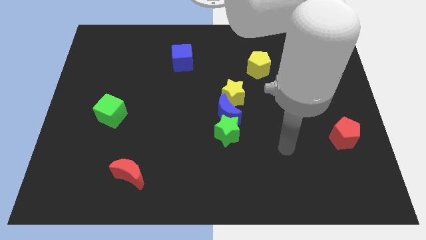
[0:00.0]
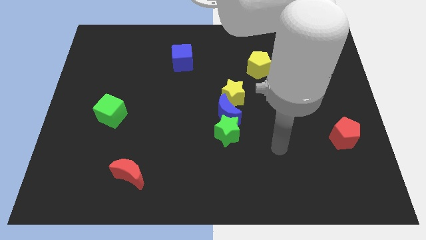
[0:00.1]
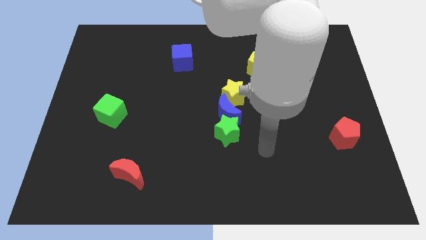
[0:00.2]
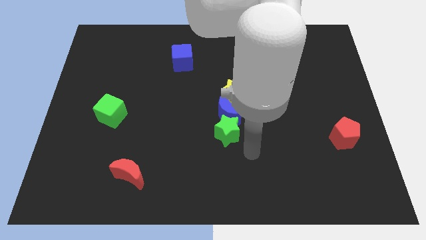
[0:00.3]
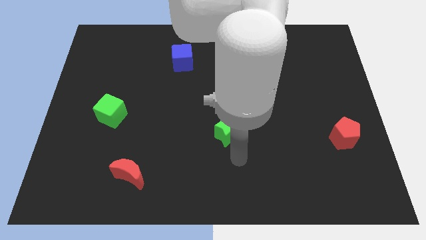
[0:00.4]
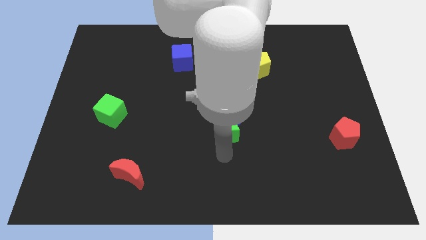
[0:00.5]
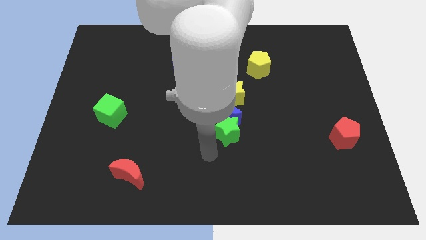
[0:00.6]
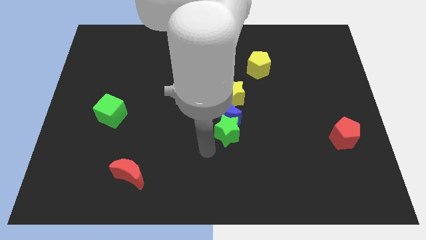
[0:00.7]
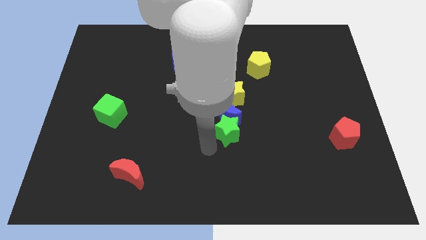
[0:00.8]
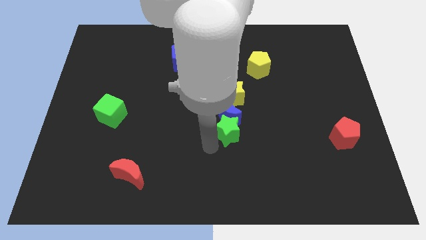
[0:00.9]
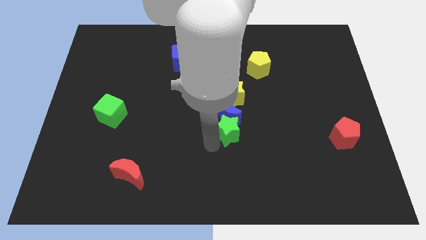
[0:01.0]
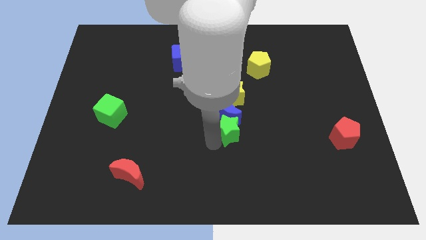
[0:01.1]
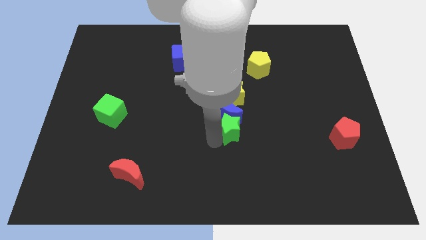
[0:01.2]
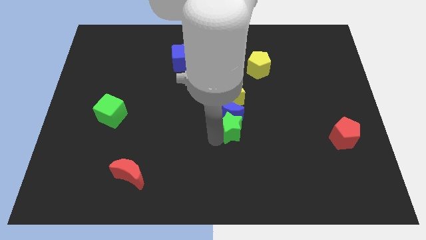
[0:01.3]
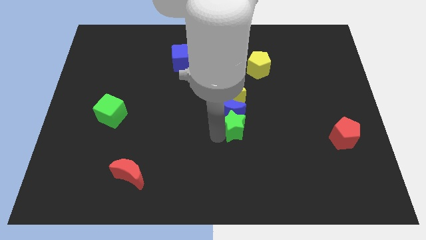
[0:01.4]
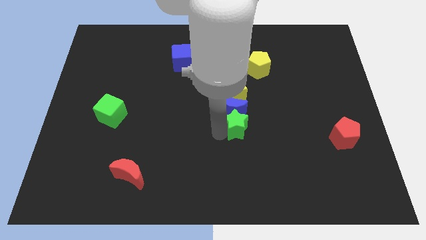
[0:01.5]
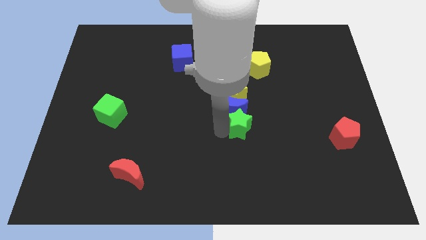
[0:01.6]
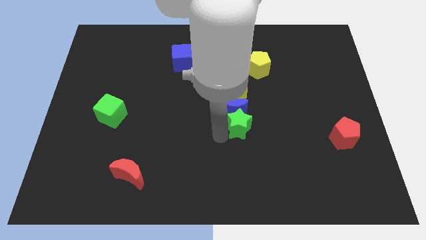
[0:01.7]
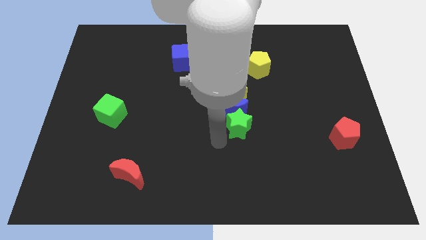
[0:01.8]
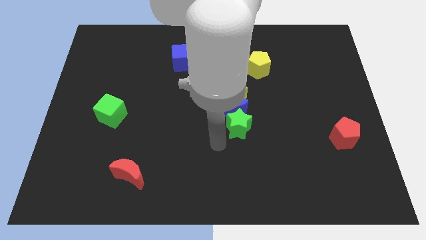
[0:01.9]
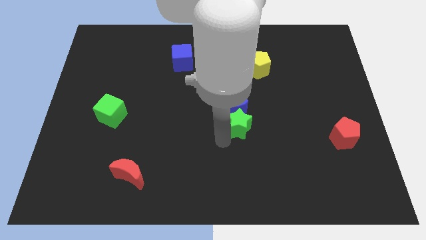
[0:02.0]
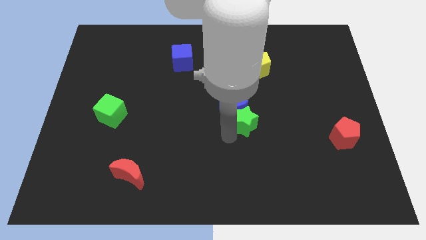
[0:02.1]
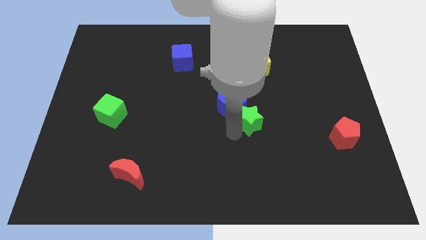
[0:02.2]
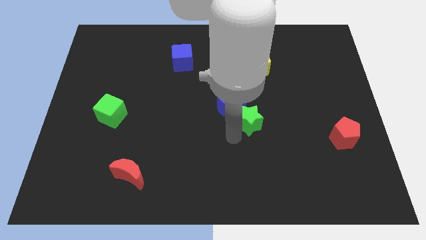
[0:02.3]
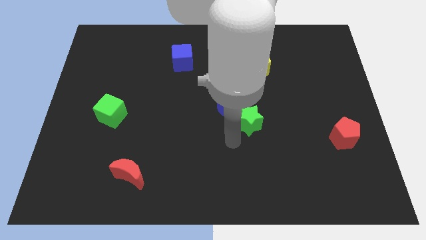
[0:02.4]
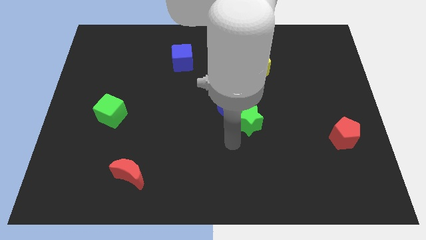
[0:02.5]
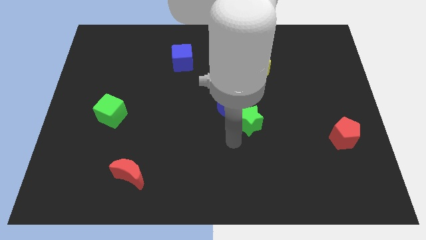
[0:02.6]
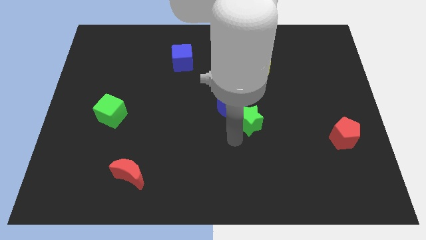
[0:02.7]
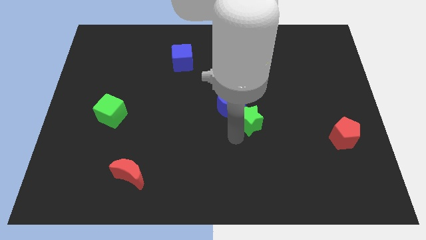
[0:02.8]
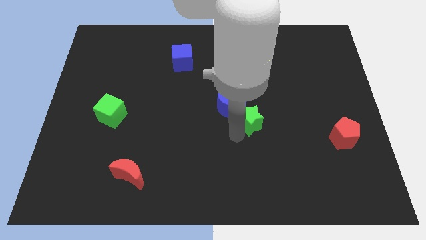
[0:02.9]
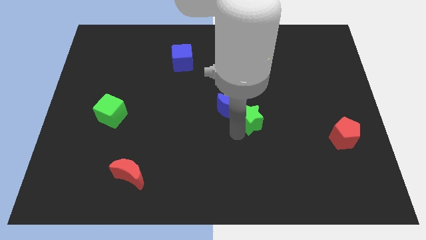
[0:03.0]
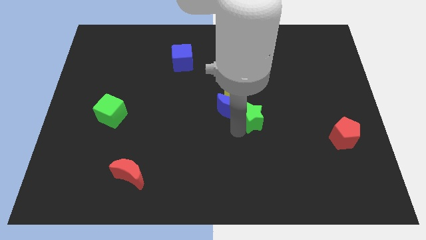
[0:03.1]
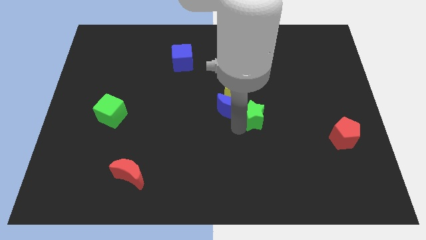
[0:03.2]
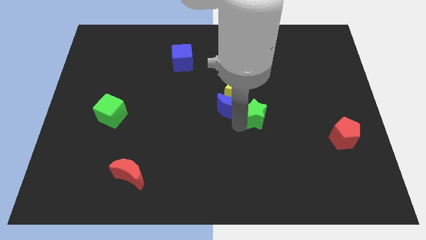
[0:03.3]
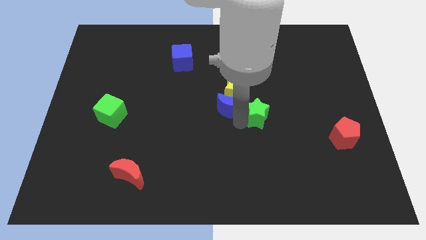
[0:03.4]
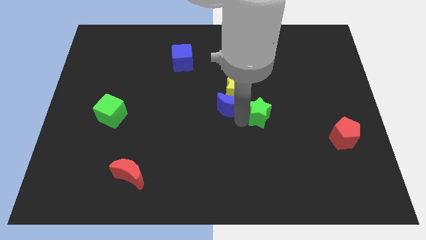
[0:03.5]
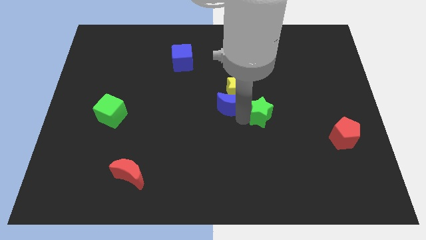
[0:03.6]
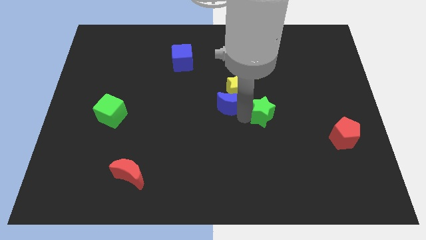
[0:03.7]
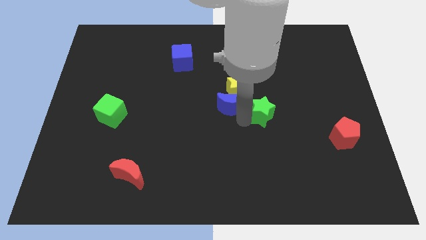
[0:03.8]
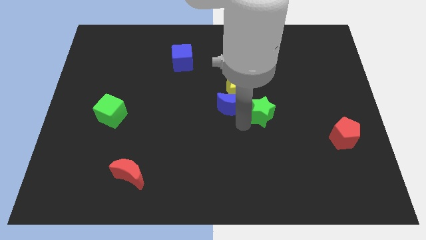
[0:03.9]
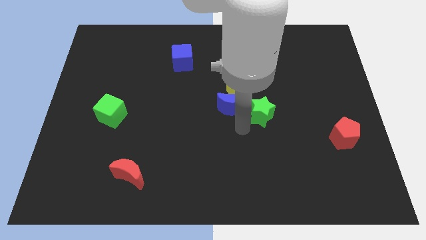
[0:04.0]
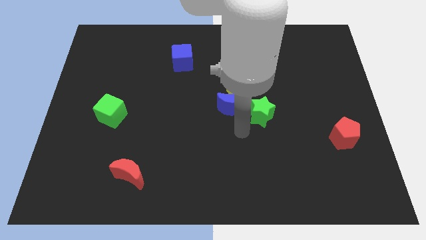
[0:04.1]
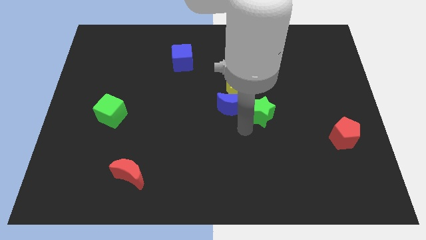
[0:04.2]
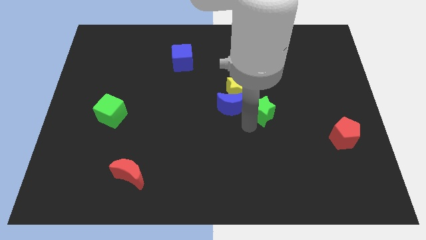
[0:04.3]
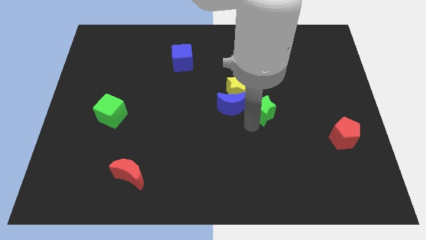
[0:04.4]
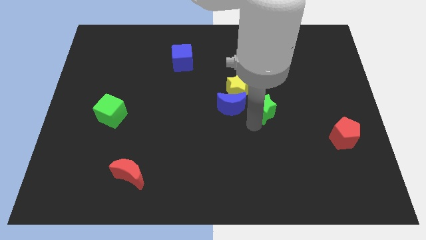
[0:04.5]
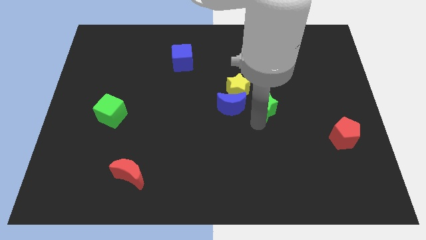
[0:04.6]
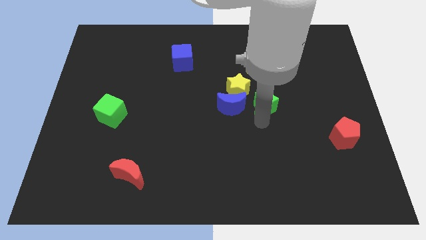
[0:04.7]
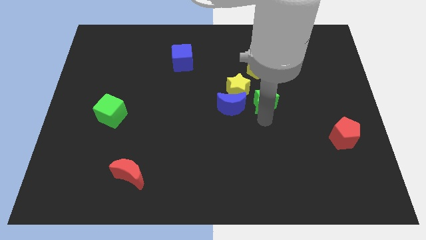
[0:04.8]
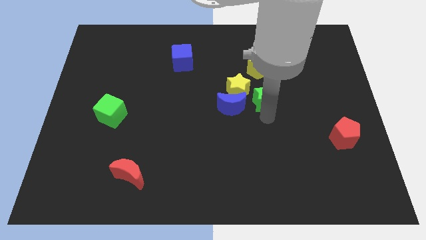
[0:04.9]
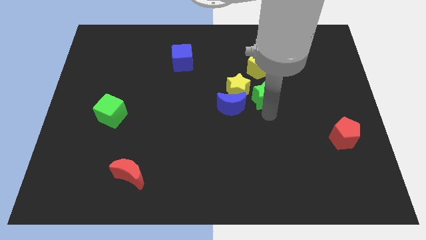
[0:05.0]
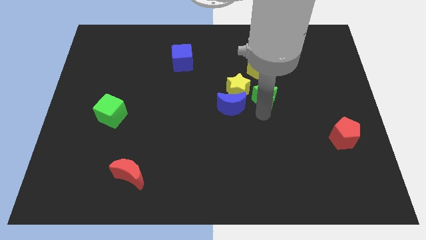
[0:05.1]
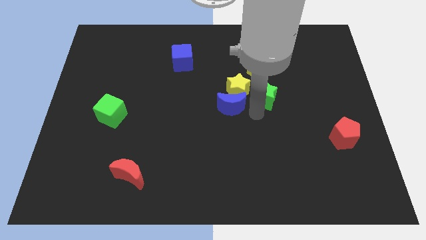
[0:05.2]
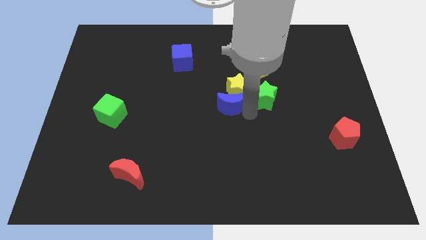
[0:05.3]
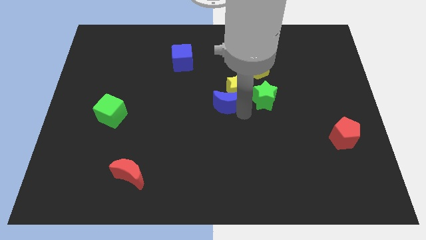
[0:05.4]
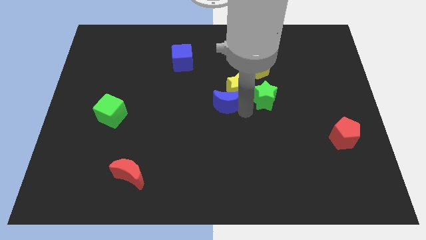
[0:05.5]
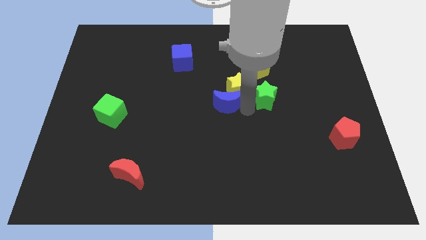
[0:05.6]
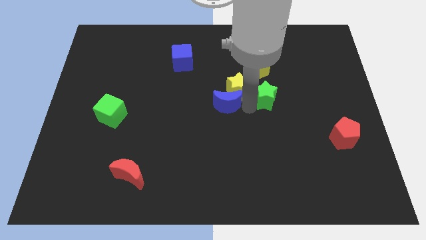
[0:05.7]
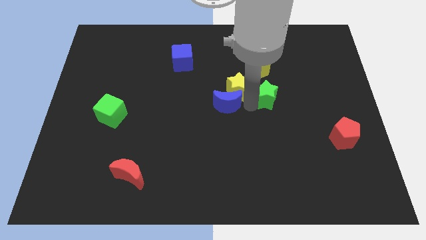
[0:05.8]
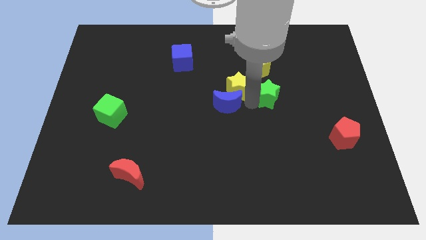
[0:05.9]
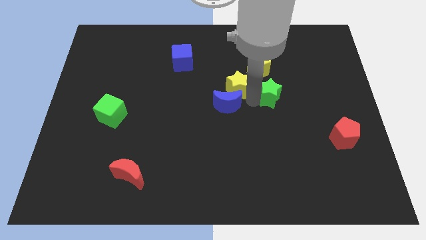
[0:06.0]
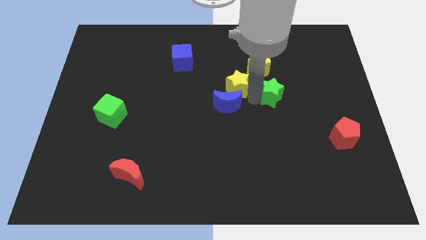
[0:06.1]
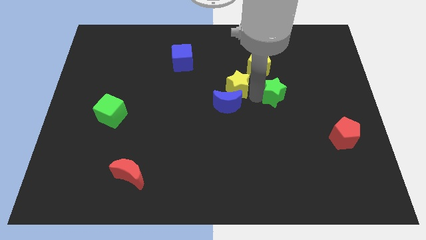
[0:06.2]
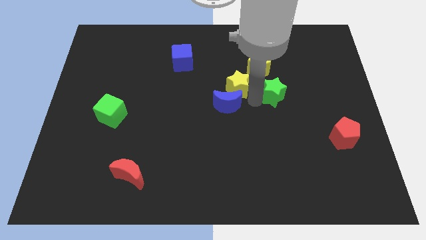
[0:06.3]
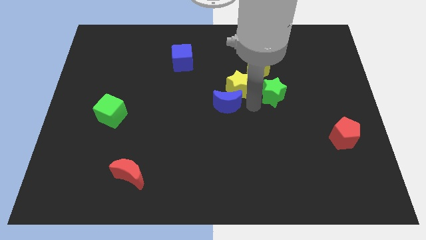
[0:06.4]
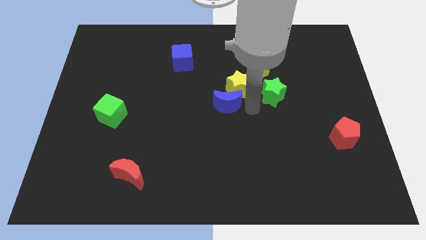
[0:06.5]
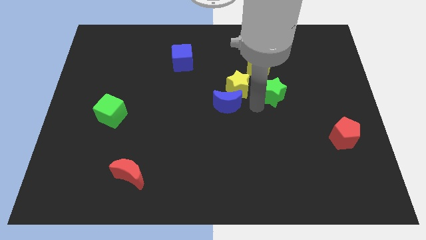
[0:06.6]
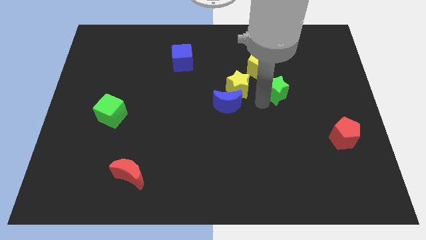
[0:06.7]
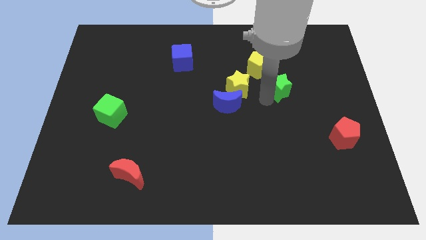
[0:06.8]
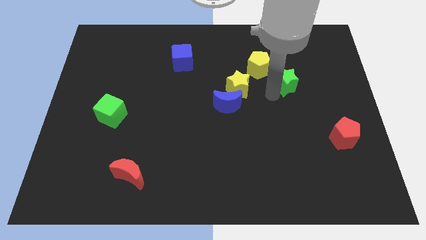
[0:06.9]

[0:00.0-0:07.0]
push the green star upwards and right

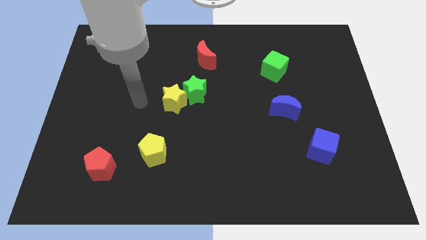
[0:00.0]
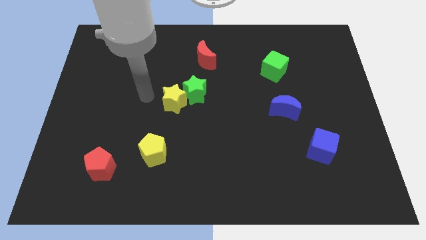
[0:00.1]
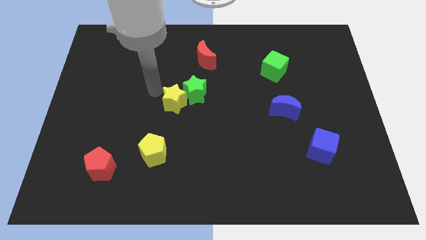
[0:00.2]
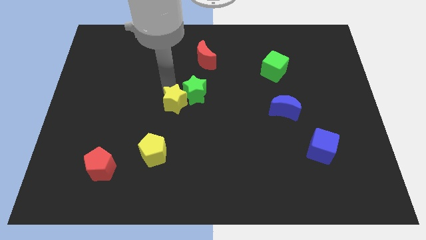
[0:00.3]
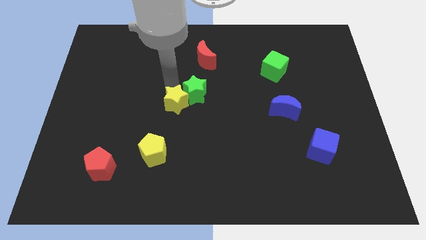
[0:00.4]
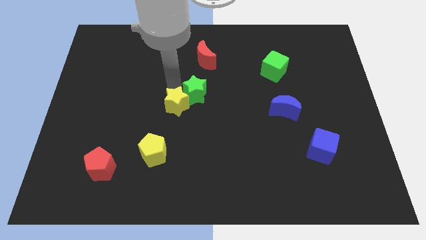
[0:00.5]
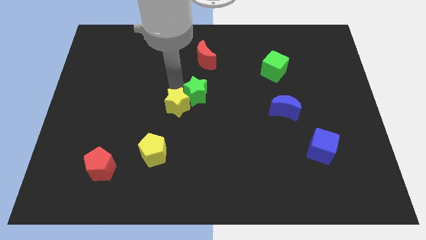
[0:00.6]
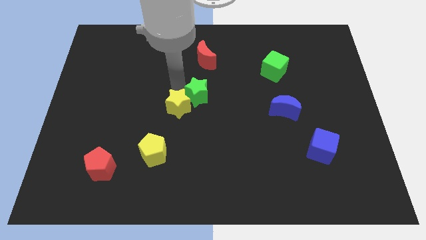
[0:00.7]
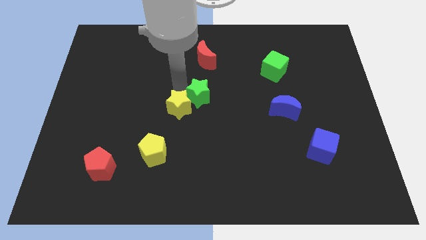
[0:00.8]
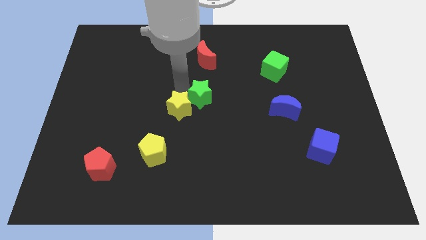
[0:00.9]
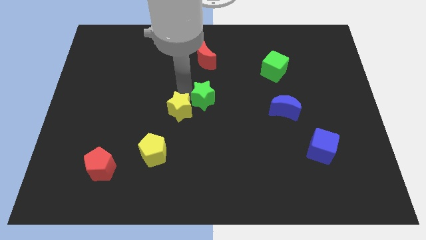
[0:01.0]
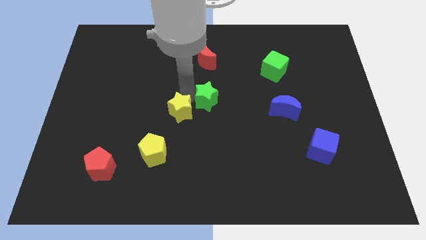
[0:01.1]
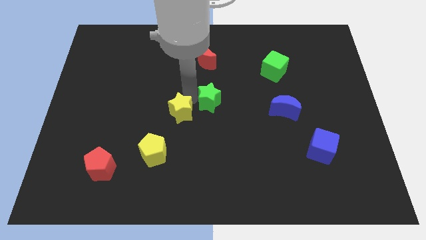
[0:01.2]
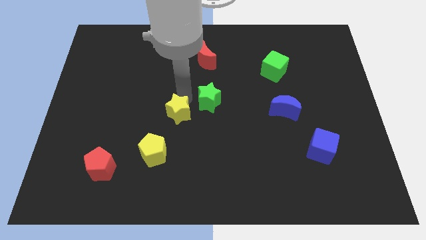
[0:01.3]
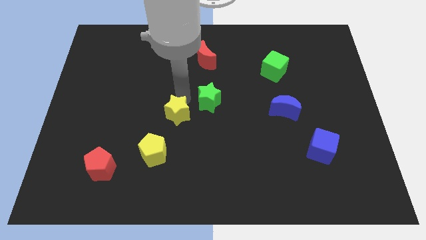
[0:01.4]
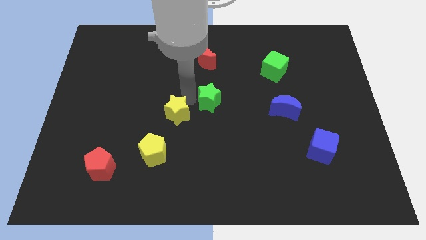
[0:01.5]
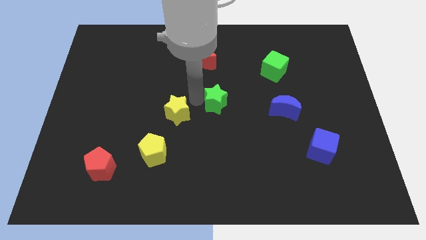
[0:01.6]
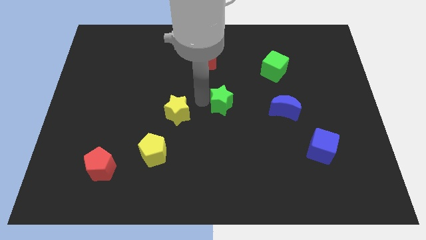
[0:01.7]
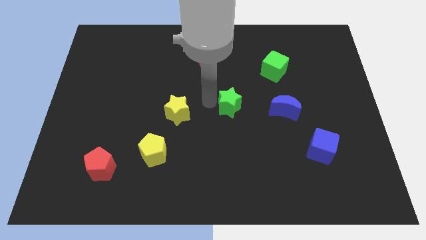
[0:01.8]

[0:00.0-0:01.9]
slightly push the green star to the right
